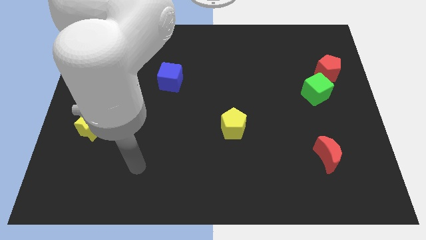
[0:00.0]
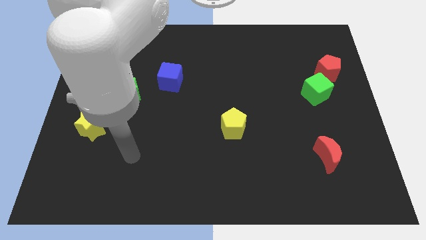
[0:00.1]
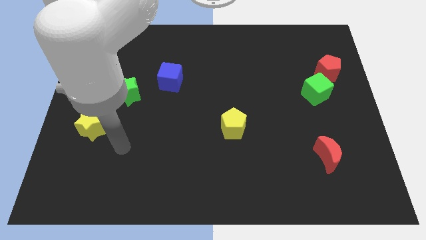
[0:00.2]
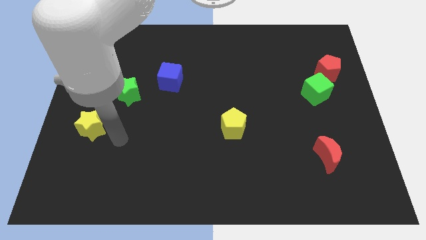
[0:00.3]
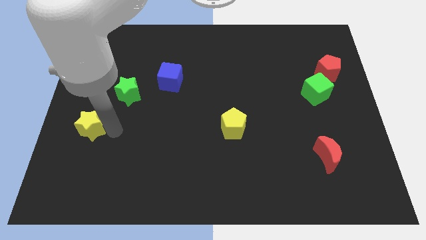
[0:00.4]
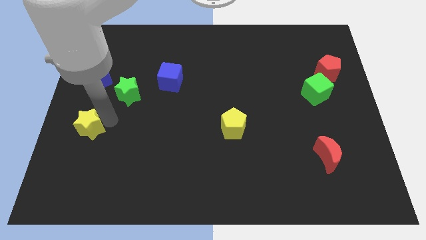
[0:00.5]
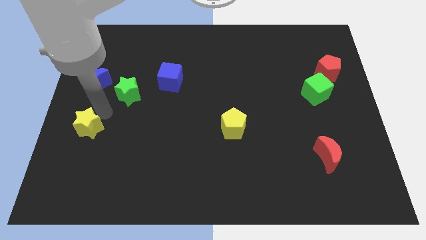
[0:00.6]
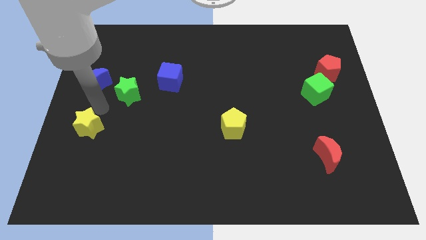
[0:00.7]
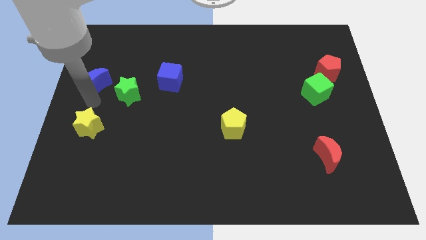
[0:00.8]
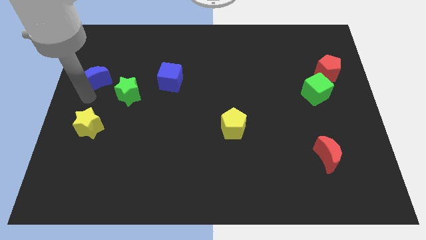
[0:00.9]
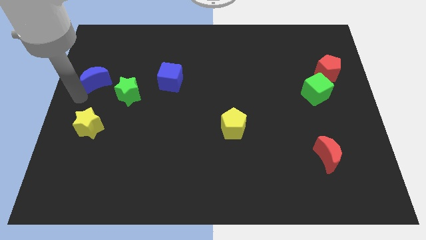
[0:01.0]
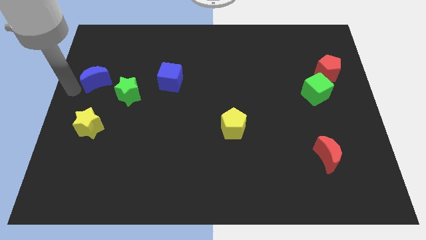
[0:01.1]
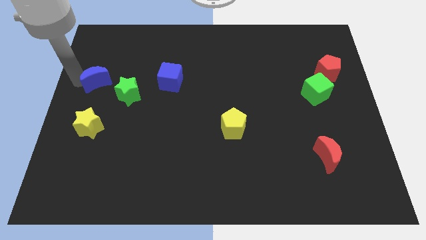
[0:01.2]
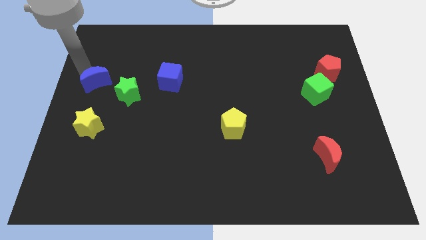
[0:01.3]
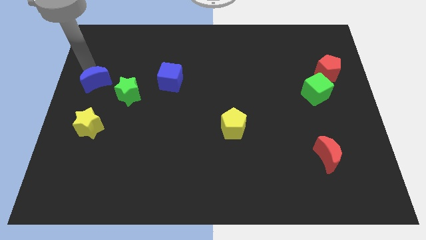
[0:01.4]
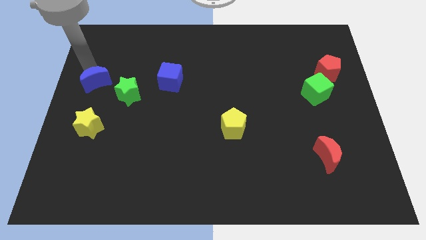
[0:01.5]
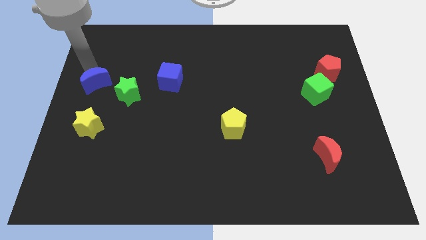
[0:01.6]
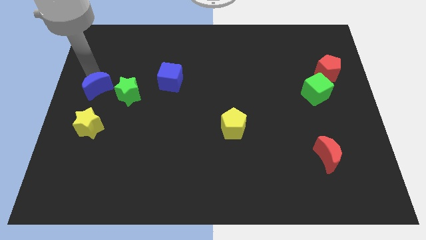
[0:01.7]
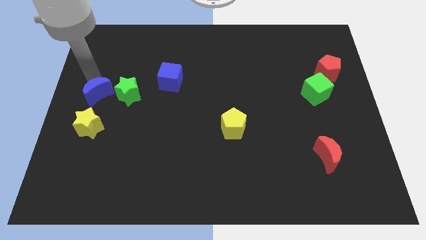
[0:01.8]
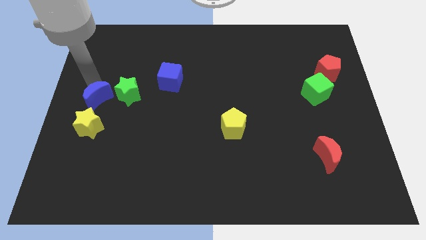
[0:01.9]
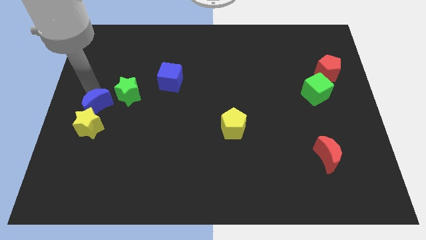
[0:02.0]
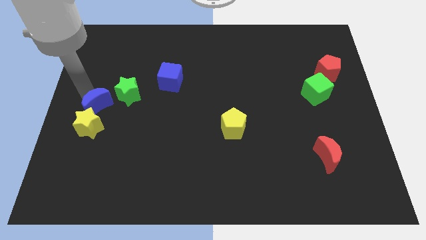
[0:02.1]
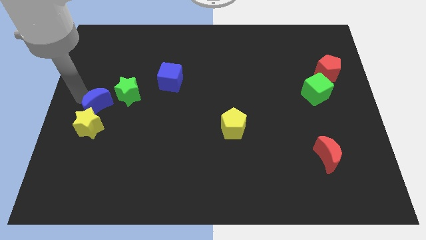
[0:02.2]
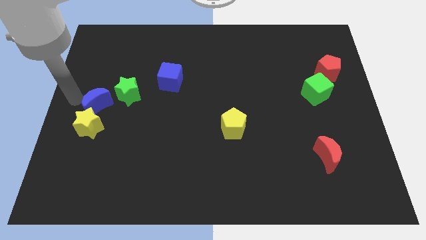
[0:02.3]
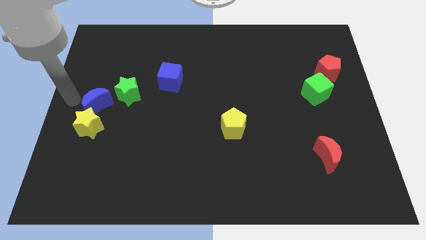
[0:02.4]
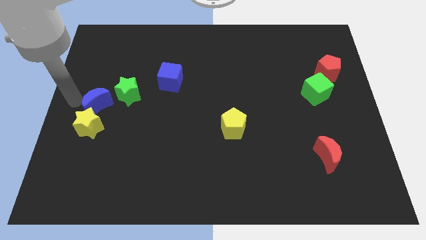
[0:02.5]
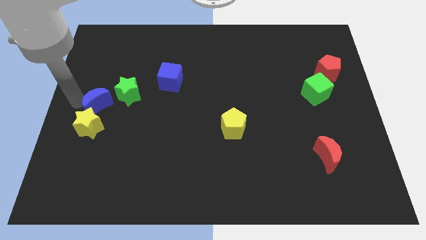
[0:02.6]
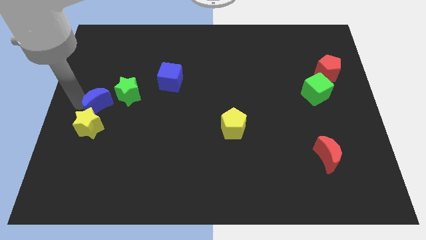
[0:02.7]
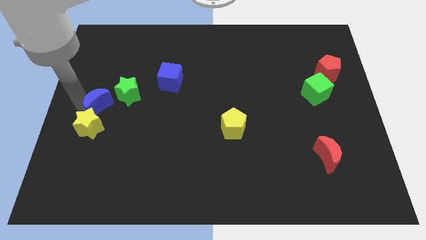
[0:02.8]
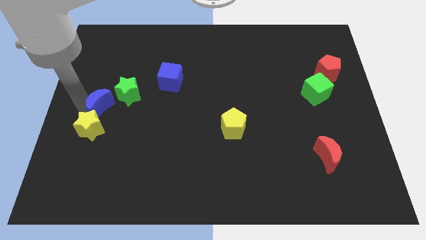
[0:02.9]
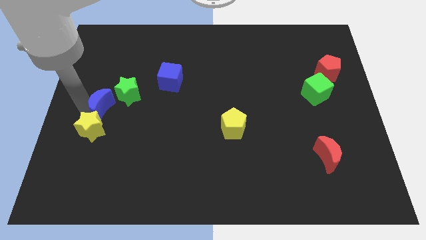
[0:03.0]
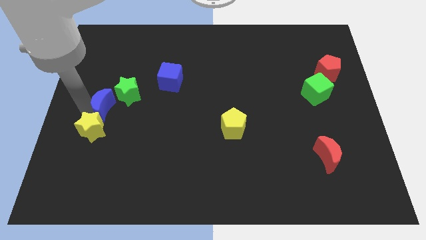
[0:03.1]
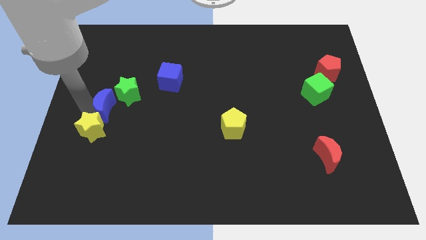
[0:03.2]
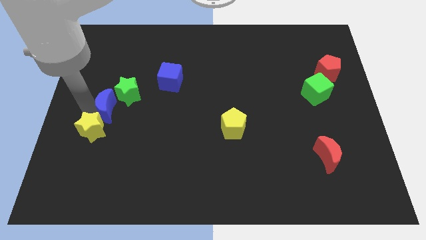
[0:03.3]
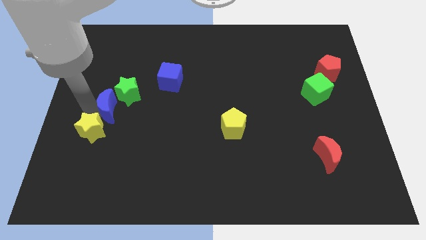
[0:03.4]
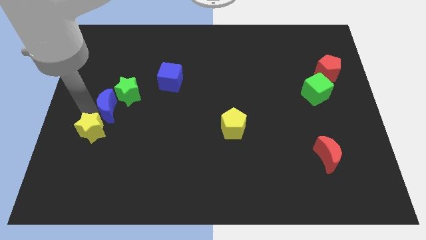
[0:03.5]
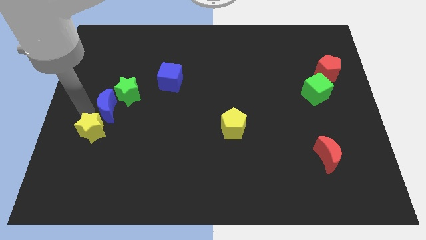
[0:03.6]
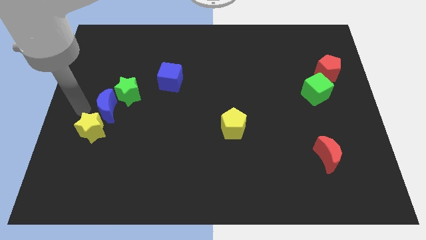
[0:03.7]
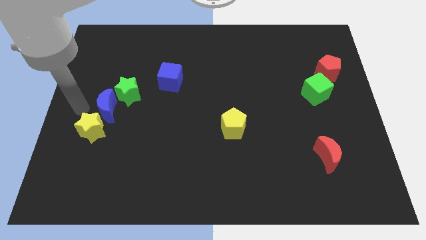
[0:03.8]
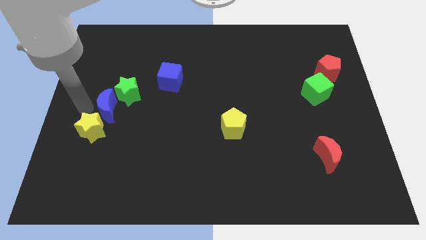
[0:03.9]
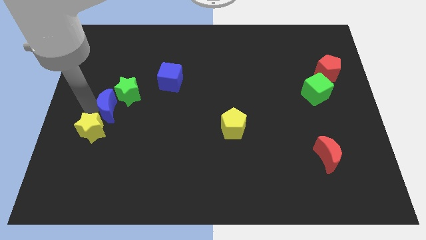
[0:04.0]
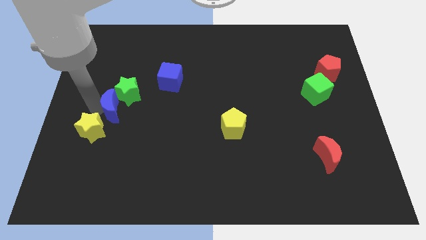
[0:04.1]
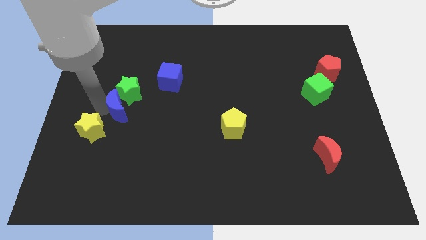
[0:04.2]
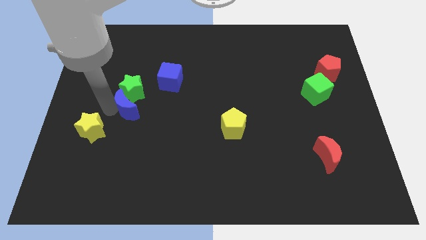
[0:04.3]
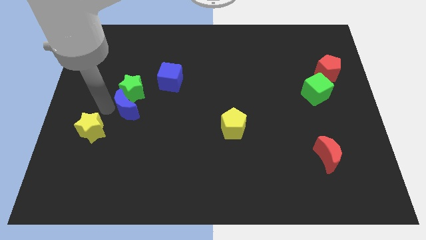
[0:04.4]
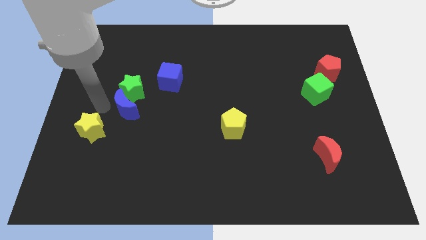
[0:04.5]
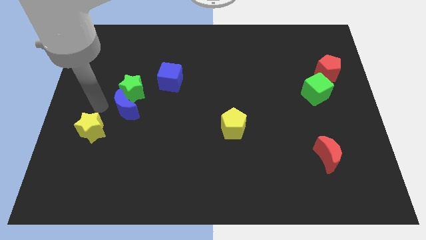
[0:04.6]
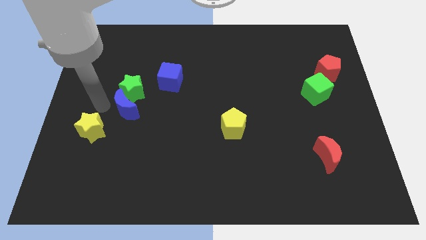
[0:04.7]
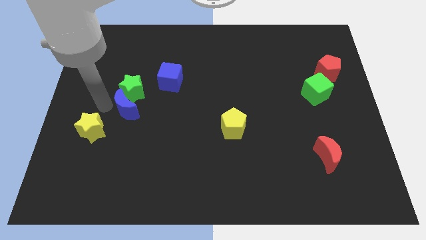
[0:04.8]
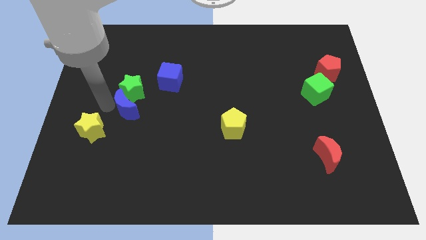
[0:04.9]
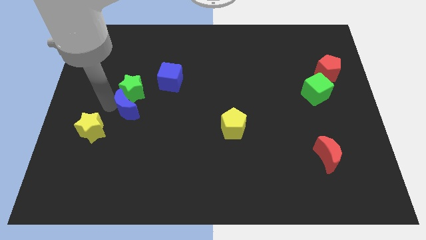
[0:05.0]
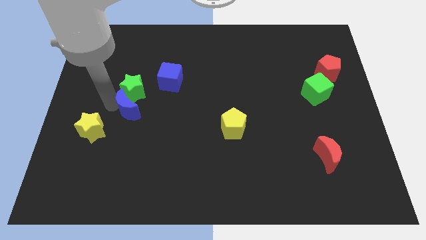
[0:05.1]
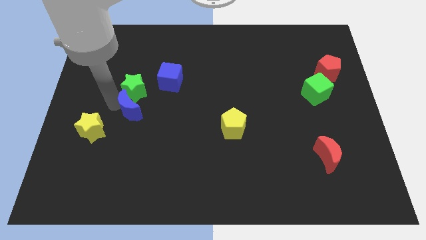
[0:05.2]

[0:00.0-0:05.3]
put the blue moon diagonally down and to the left of the blue cube

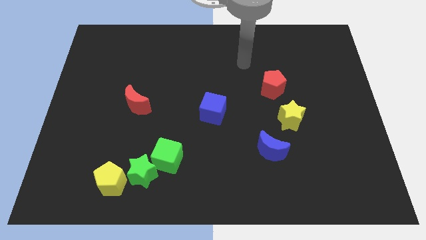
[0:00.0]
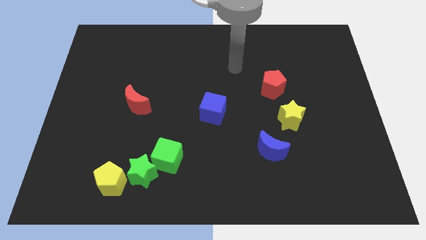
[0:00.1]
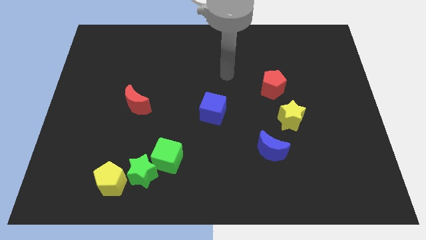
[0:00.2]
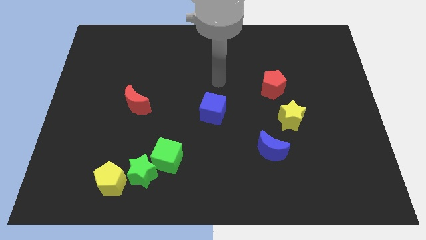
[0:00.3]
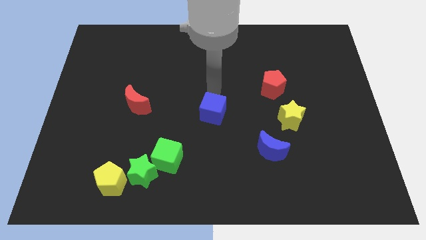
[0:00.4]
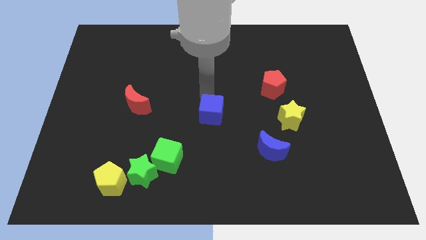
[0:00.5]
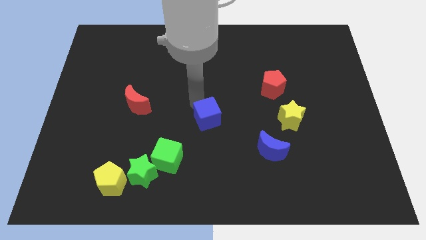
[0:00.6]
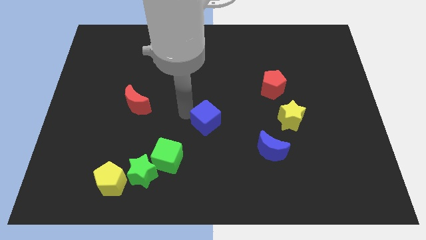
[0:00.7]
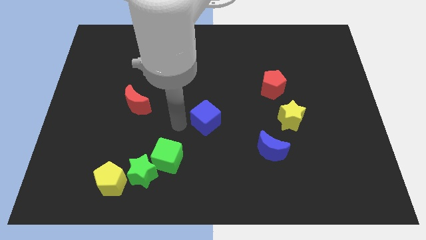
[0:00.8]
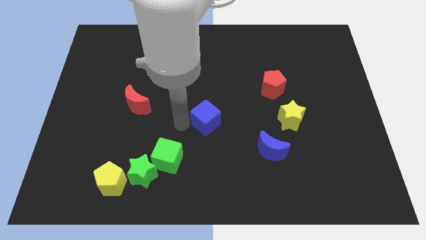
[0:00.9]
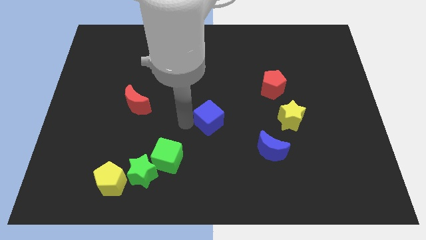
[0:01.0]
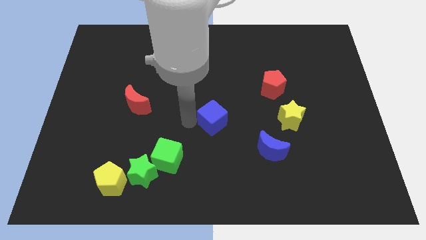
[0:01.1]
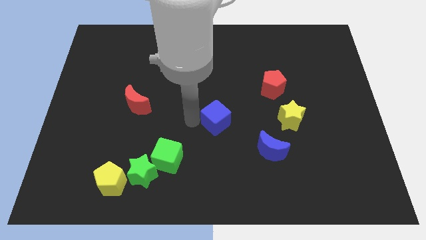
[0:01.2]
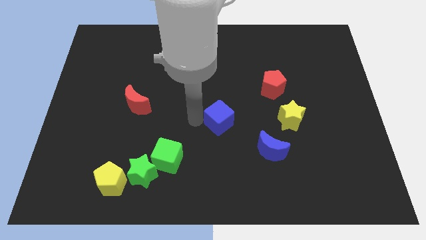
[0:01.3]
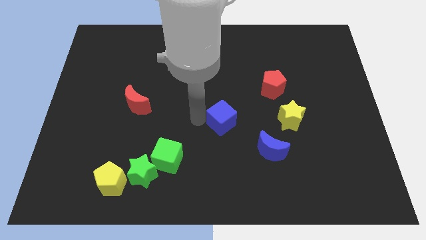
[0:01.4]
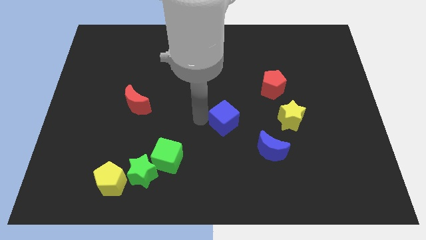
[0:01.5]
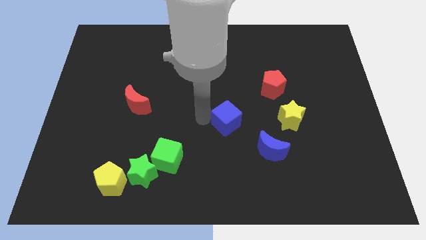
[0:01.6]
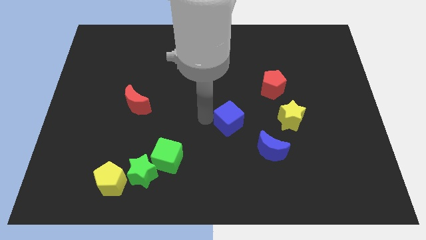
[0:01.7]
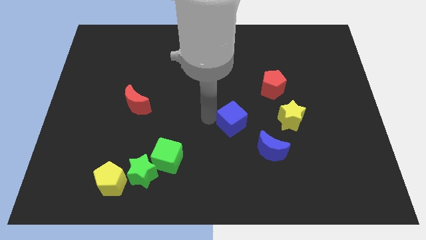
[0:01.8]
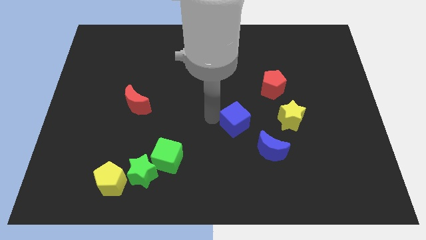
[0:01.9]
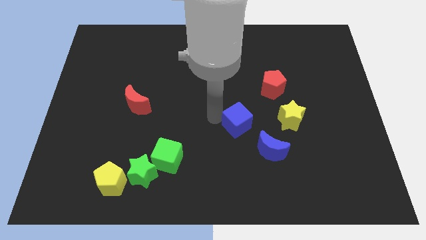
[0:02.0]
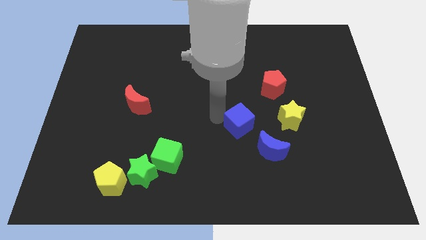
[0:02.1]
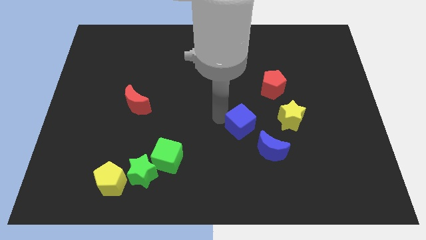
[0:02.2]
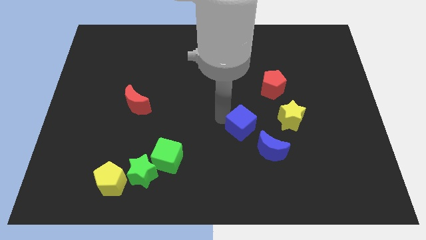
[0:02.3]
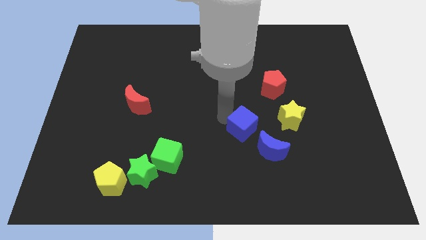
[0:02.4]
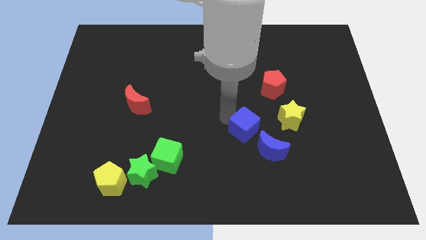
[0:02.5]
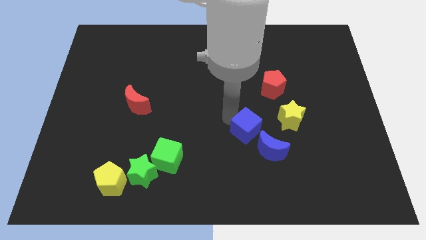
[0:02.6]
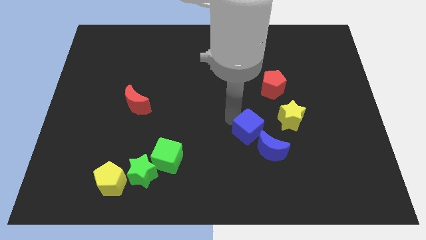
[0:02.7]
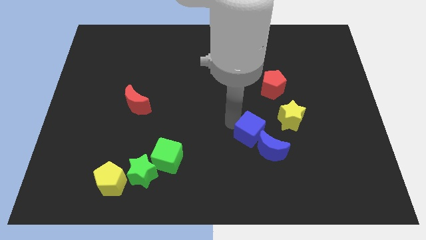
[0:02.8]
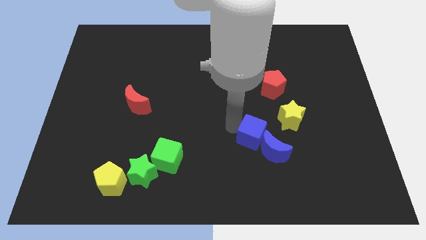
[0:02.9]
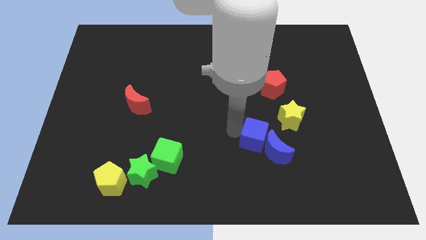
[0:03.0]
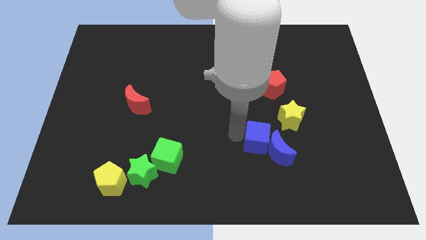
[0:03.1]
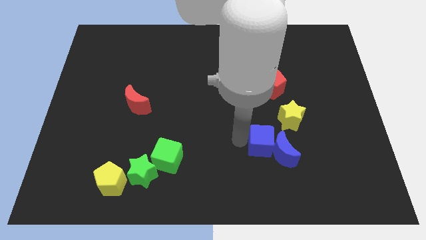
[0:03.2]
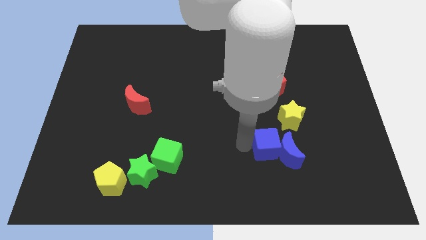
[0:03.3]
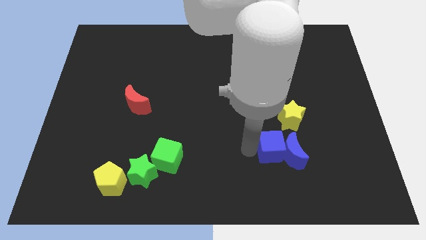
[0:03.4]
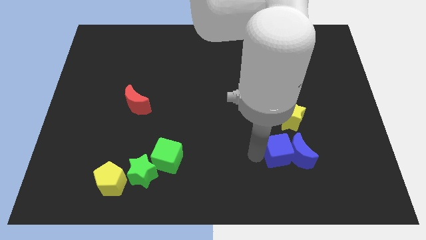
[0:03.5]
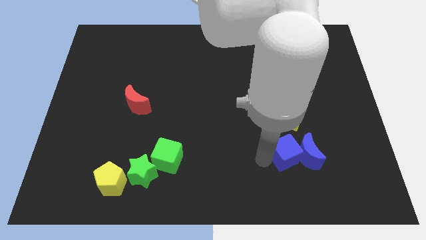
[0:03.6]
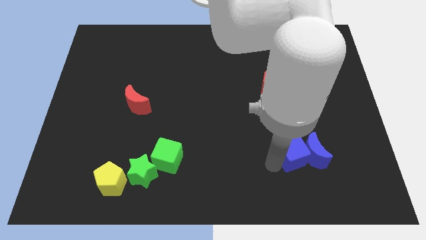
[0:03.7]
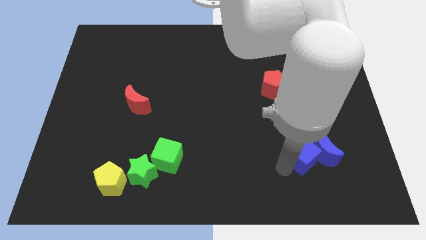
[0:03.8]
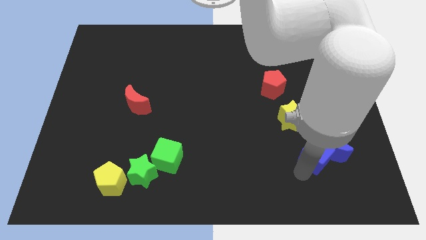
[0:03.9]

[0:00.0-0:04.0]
move the blue cube to the bottom right of the yellow star
